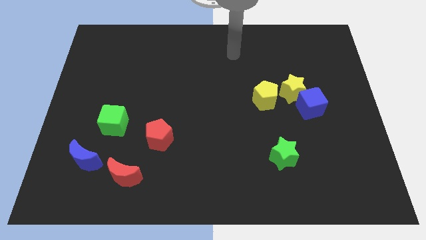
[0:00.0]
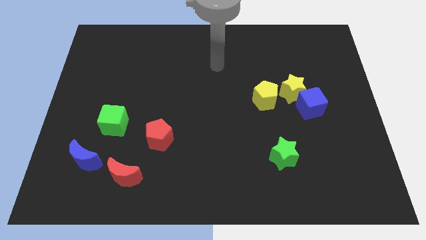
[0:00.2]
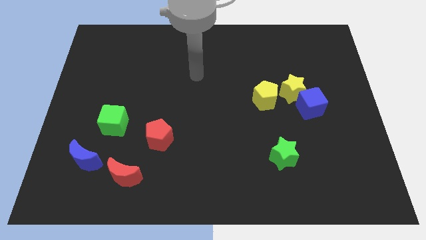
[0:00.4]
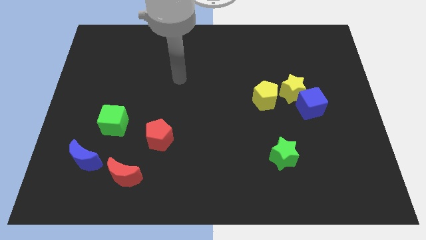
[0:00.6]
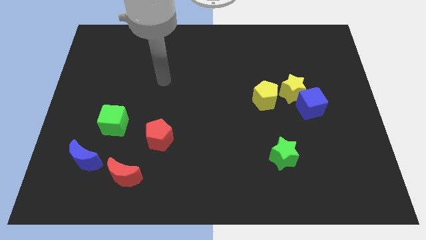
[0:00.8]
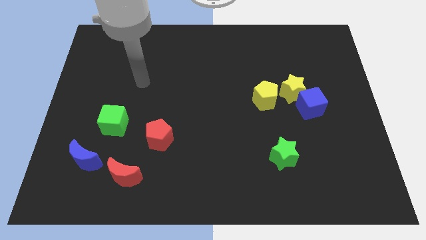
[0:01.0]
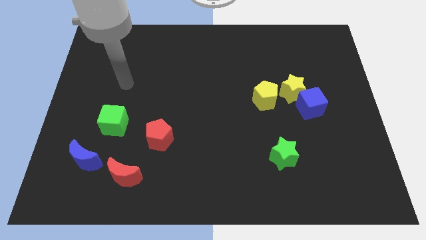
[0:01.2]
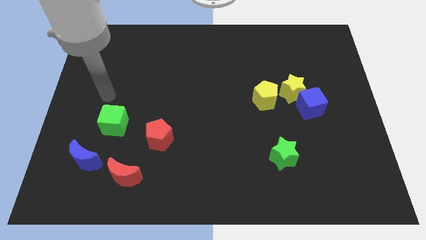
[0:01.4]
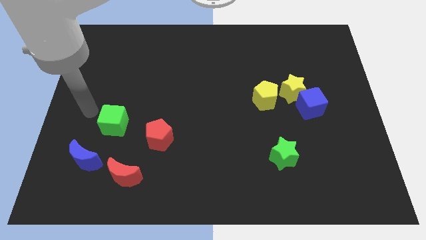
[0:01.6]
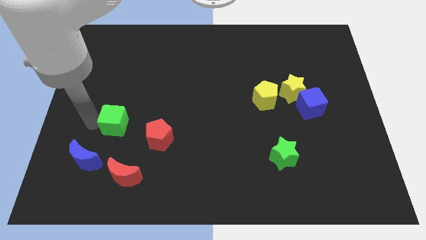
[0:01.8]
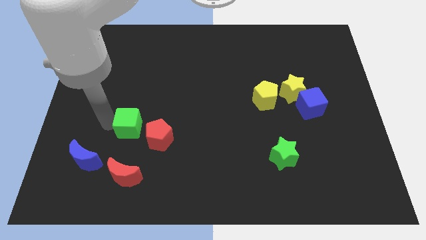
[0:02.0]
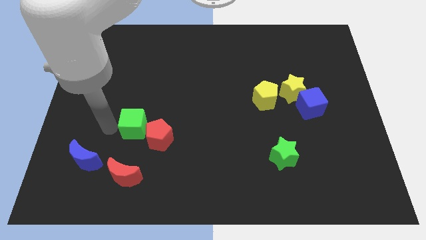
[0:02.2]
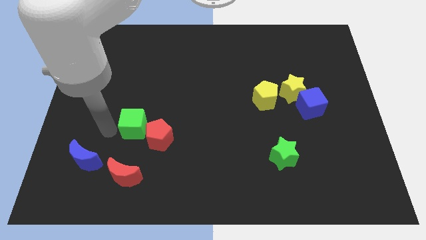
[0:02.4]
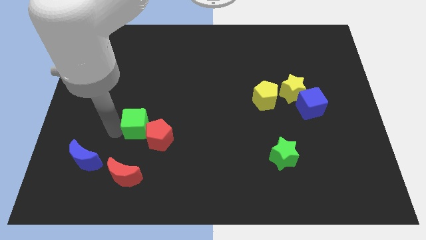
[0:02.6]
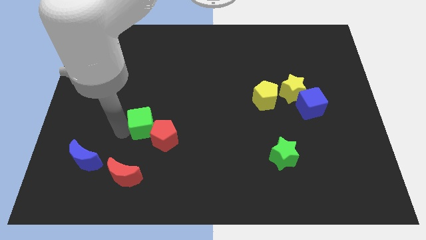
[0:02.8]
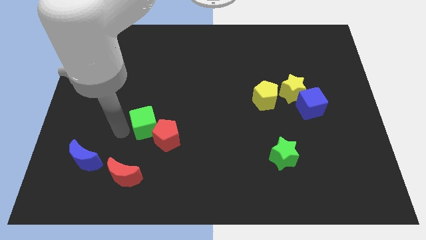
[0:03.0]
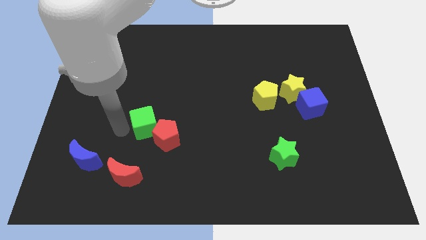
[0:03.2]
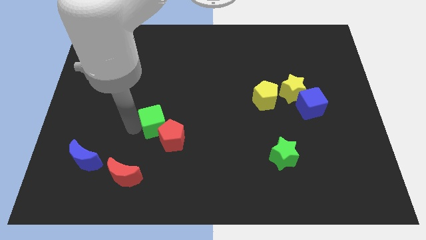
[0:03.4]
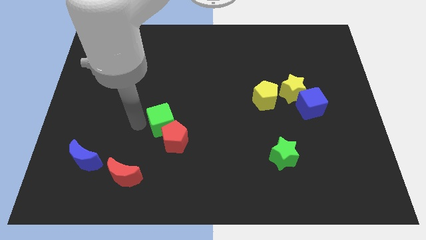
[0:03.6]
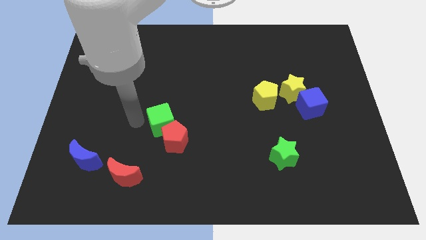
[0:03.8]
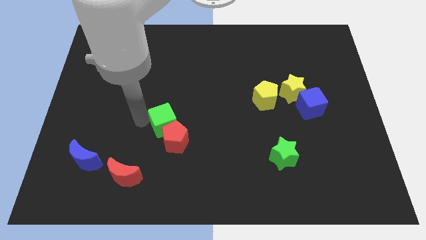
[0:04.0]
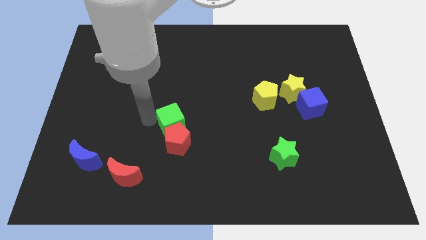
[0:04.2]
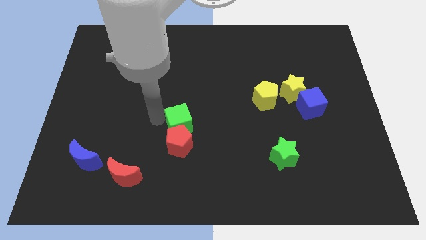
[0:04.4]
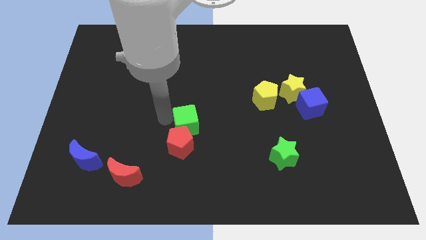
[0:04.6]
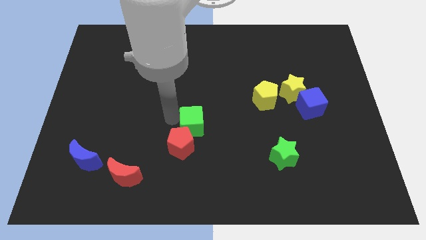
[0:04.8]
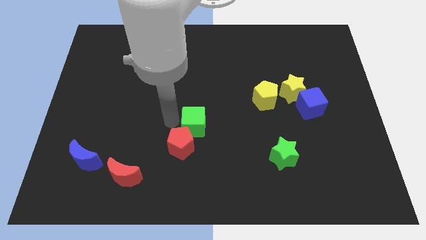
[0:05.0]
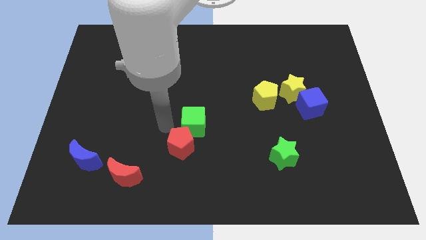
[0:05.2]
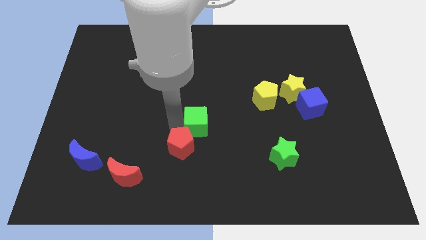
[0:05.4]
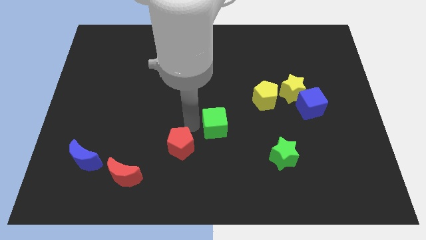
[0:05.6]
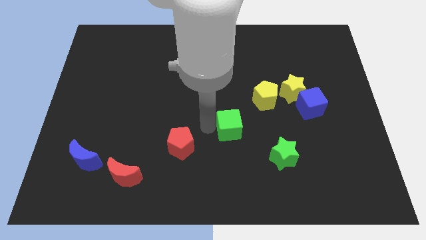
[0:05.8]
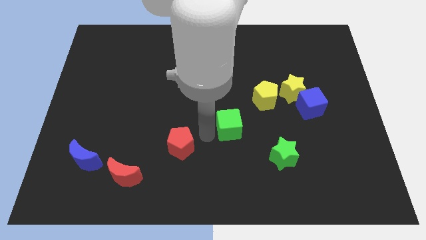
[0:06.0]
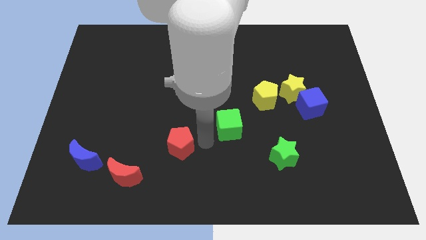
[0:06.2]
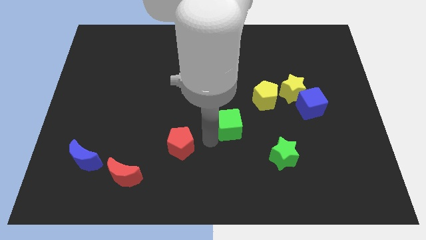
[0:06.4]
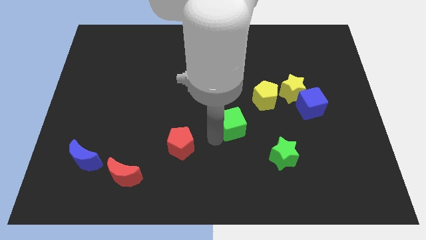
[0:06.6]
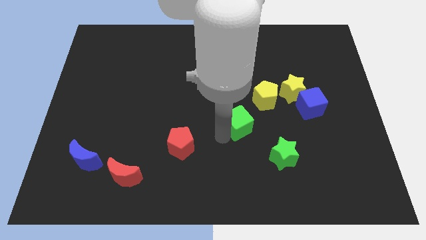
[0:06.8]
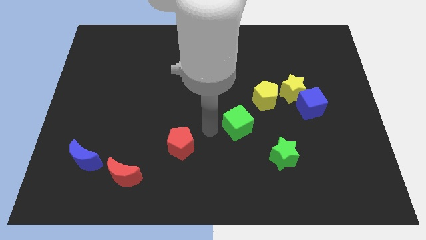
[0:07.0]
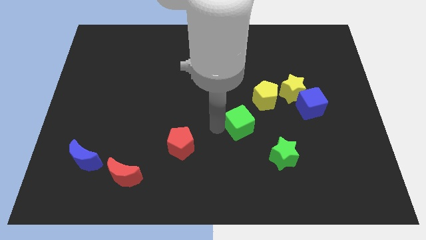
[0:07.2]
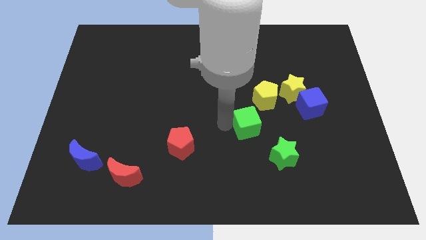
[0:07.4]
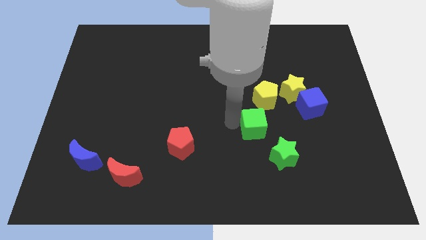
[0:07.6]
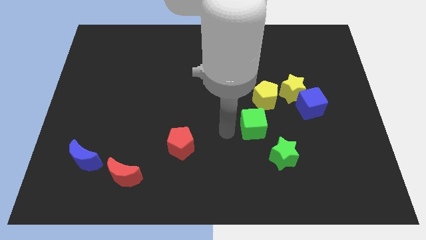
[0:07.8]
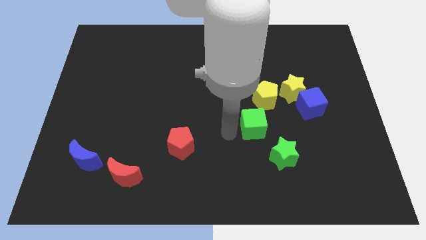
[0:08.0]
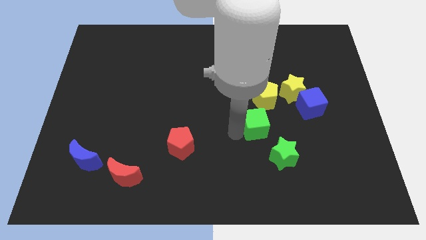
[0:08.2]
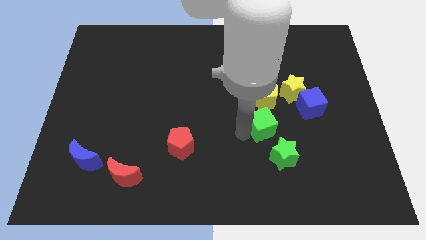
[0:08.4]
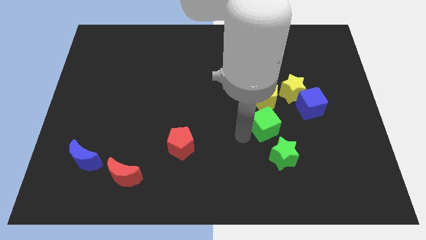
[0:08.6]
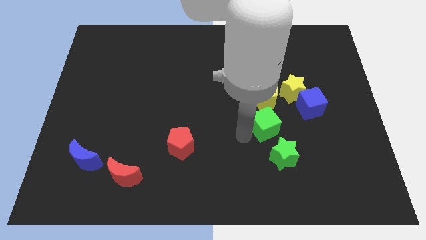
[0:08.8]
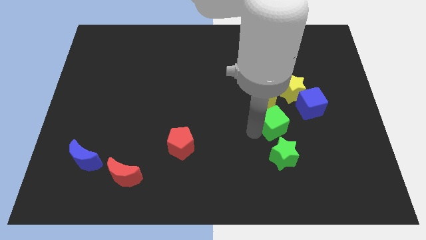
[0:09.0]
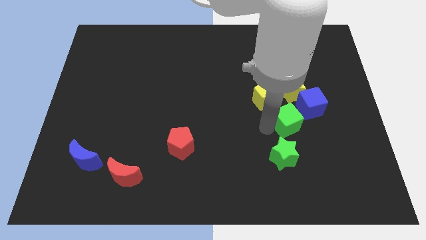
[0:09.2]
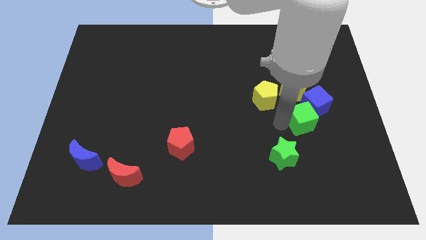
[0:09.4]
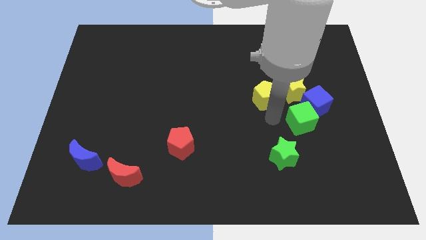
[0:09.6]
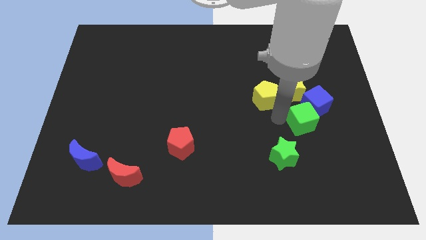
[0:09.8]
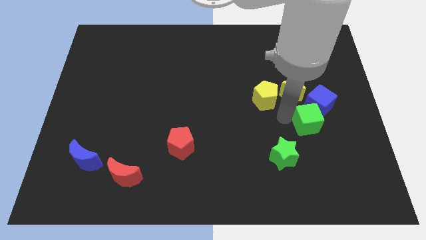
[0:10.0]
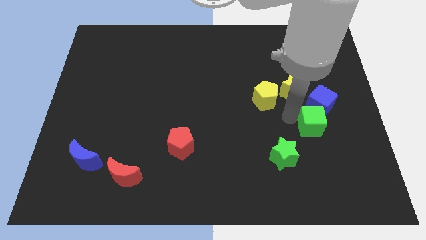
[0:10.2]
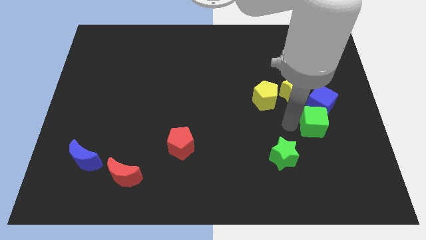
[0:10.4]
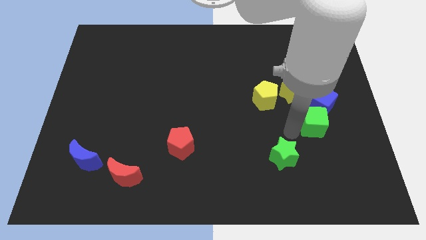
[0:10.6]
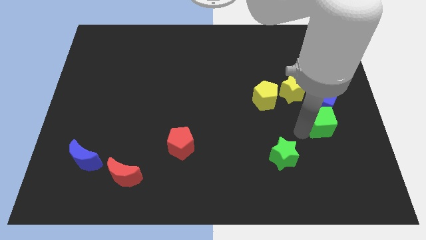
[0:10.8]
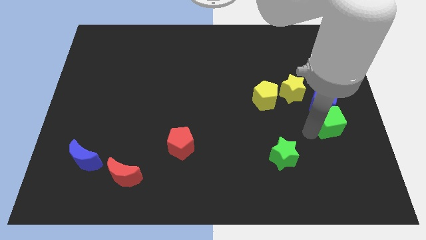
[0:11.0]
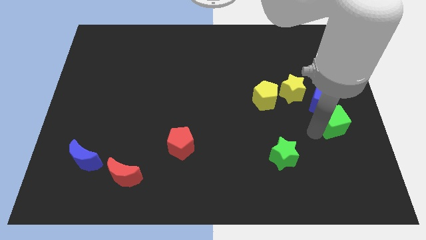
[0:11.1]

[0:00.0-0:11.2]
put the green cube to the center right

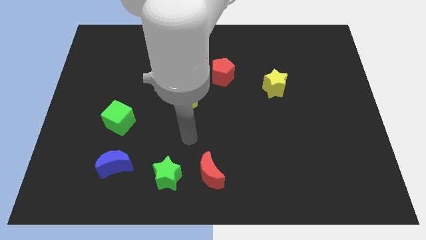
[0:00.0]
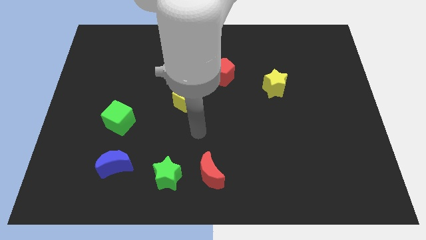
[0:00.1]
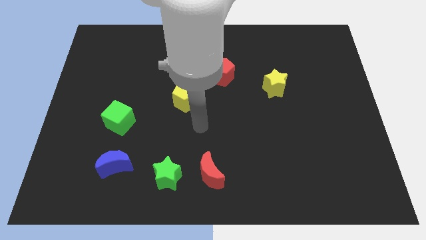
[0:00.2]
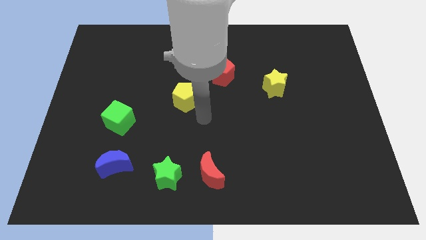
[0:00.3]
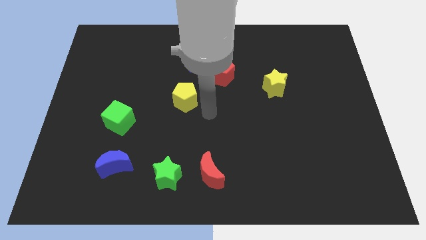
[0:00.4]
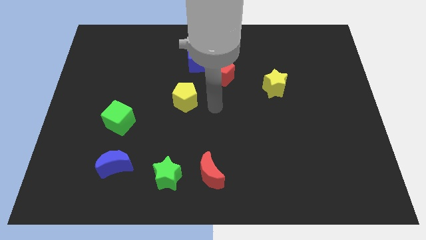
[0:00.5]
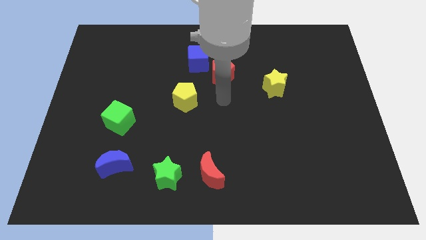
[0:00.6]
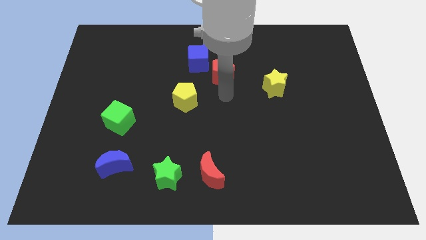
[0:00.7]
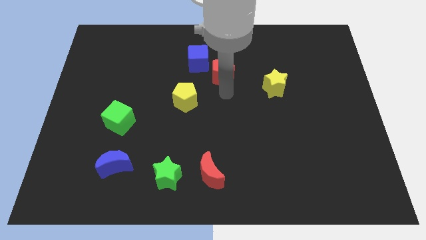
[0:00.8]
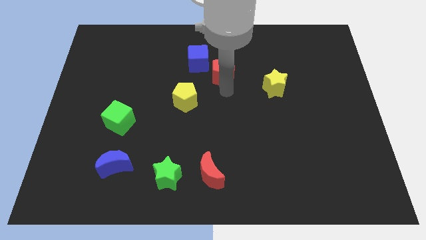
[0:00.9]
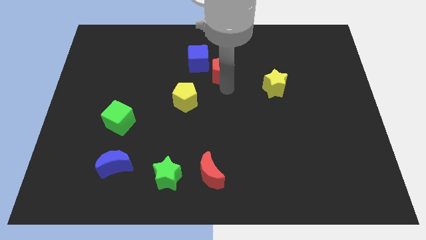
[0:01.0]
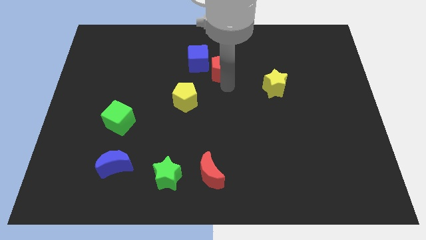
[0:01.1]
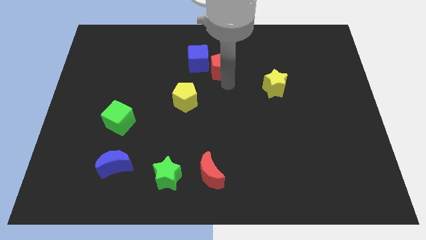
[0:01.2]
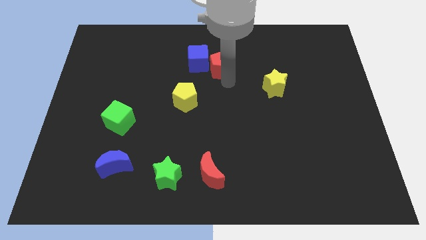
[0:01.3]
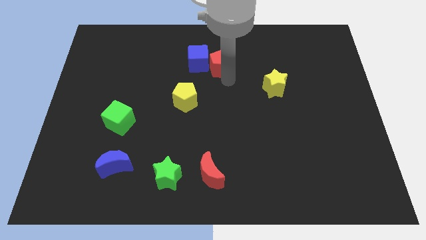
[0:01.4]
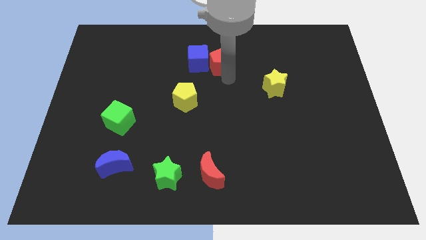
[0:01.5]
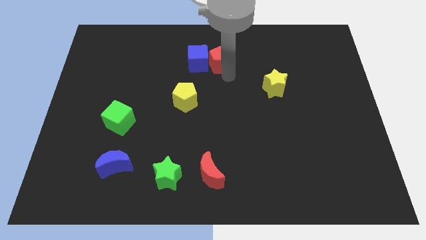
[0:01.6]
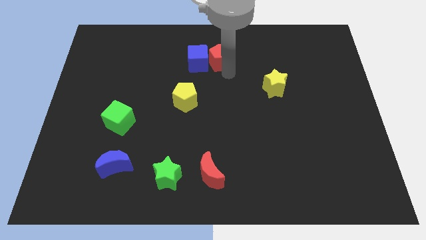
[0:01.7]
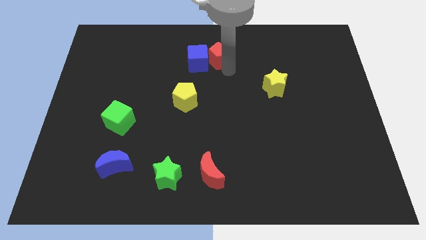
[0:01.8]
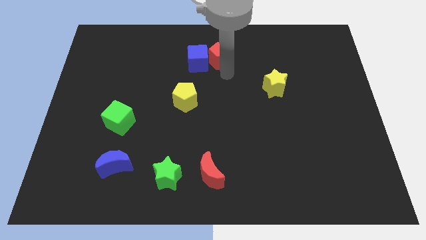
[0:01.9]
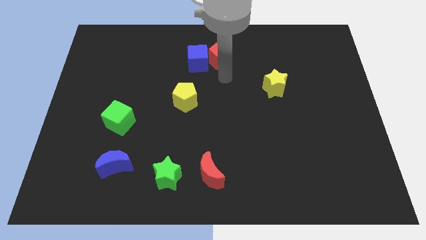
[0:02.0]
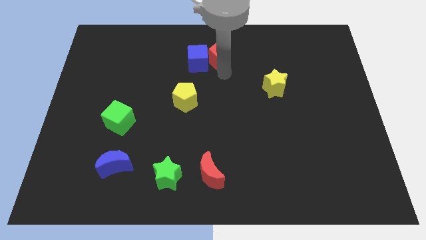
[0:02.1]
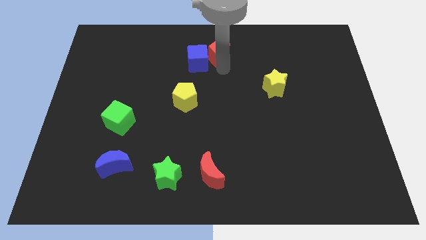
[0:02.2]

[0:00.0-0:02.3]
put the red pentagon to the top side
